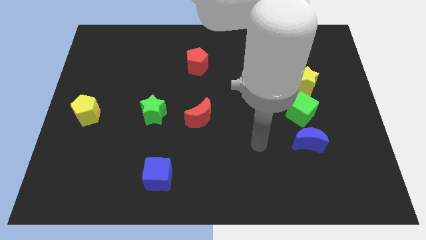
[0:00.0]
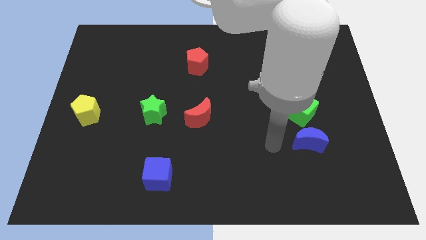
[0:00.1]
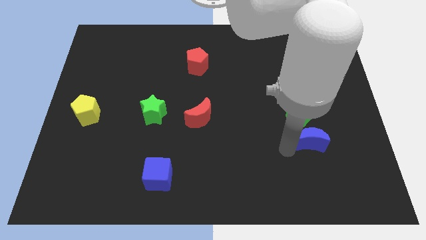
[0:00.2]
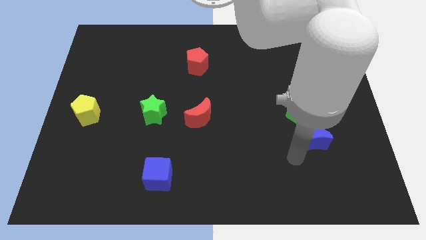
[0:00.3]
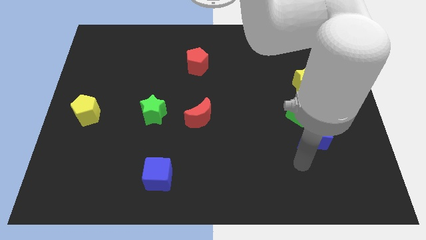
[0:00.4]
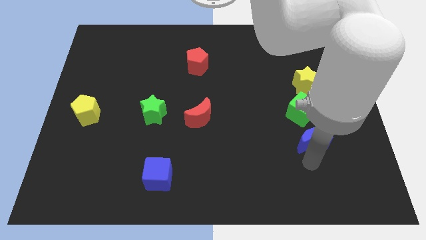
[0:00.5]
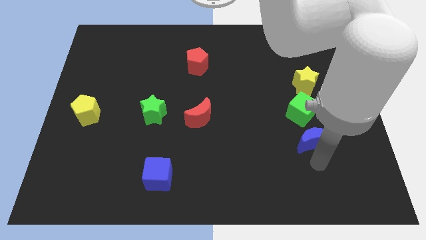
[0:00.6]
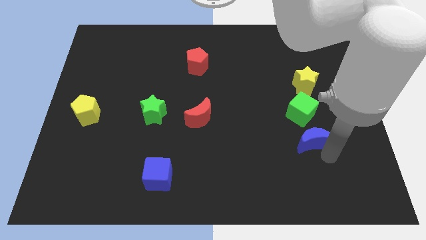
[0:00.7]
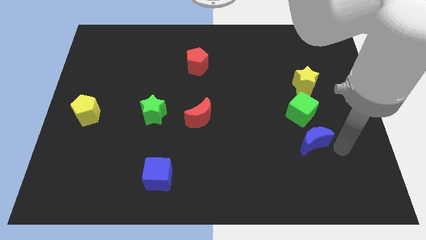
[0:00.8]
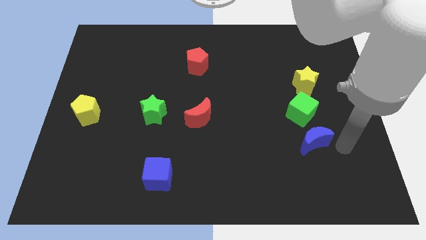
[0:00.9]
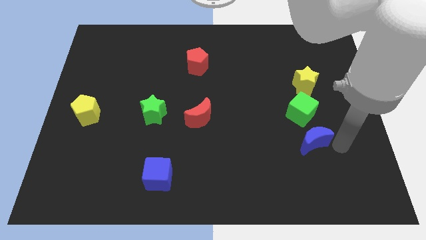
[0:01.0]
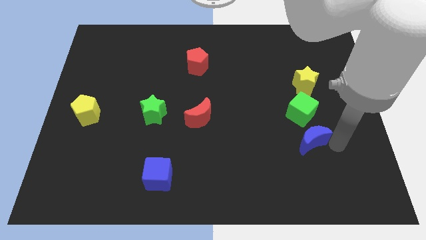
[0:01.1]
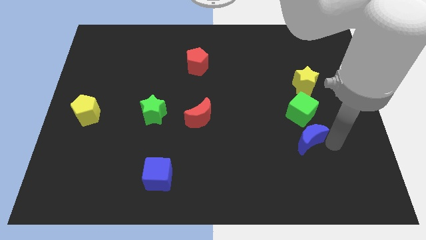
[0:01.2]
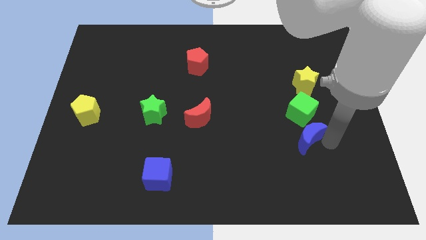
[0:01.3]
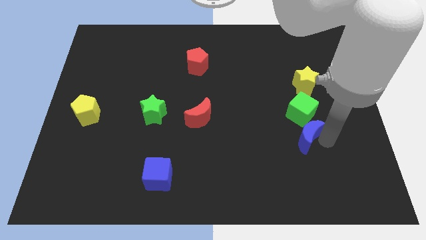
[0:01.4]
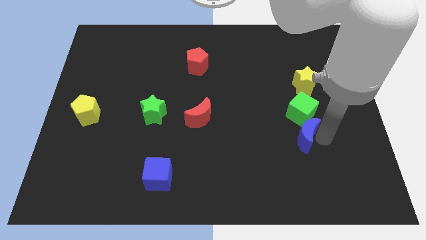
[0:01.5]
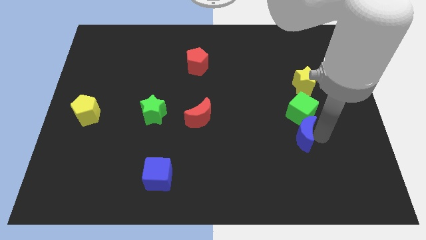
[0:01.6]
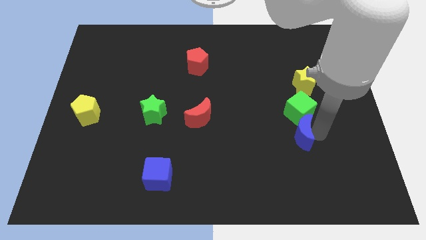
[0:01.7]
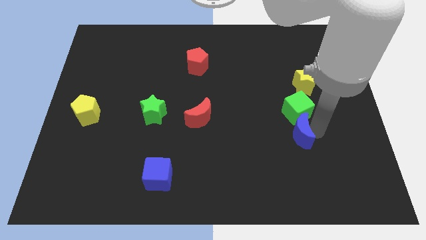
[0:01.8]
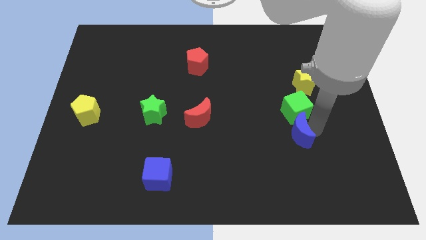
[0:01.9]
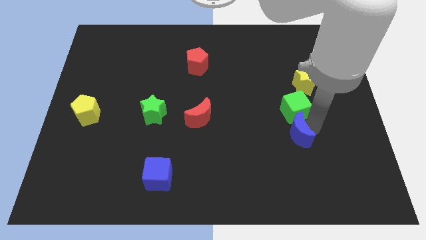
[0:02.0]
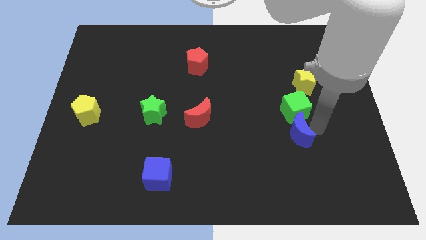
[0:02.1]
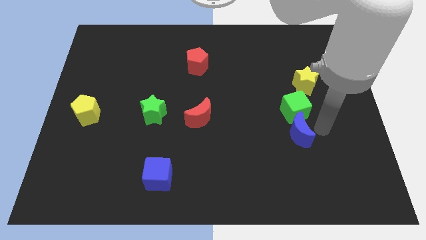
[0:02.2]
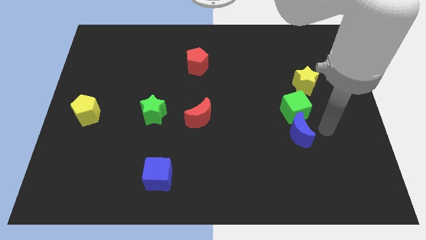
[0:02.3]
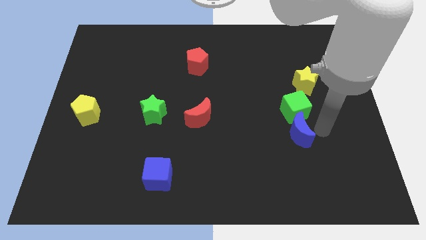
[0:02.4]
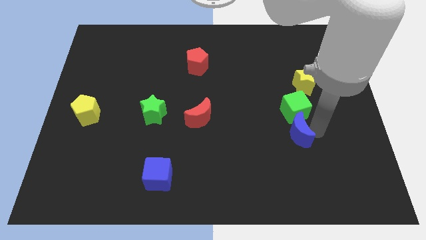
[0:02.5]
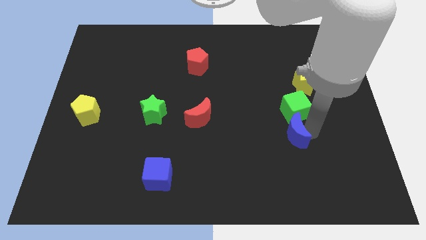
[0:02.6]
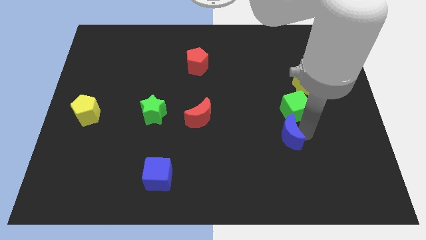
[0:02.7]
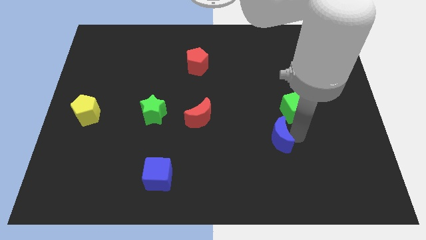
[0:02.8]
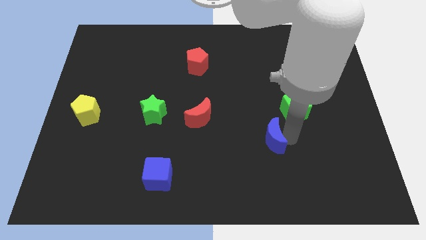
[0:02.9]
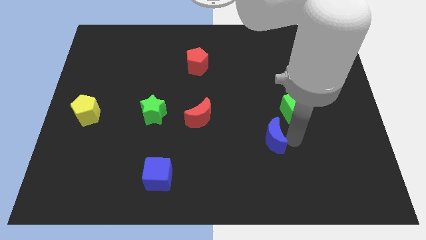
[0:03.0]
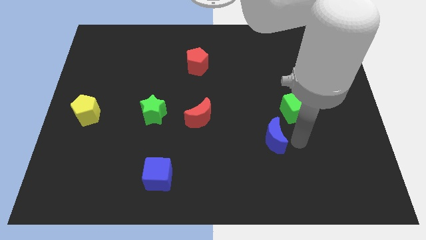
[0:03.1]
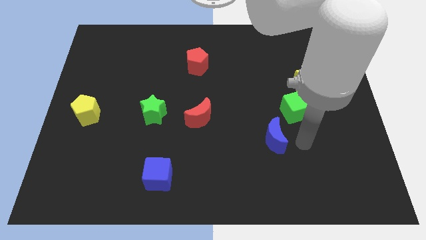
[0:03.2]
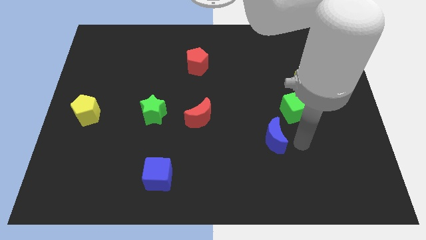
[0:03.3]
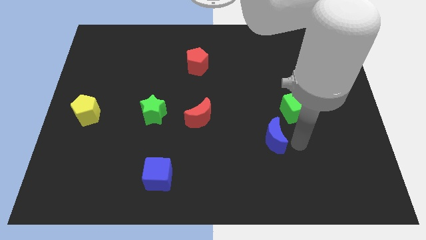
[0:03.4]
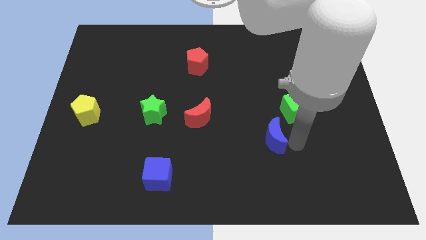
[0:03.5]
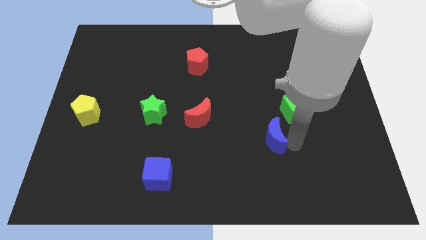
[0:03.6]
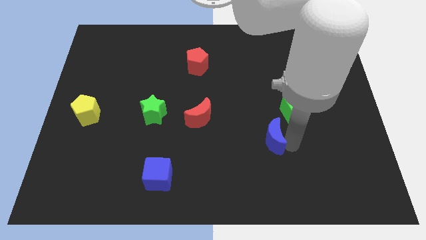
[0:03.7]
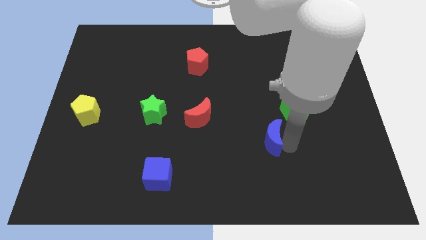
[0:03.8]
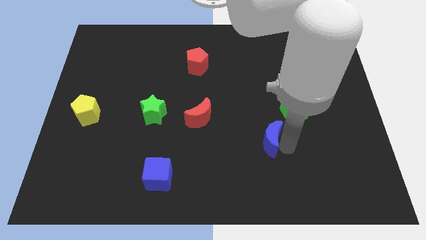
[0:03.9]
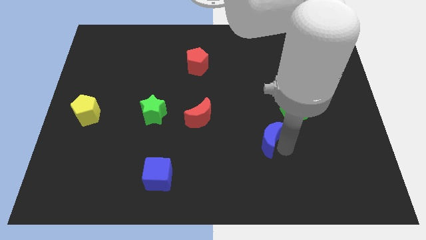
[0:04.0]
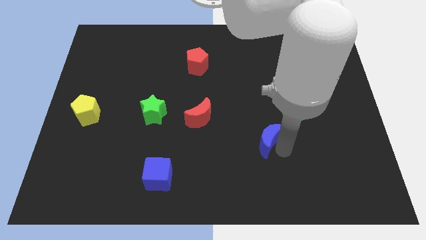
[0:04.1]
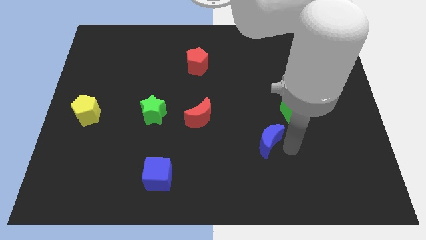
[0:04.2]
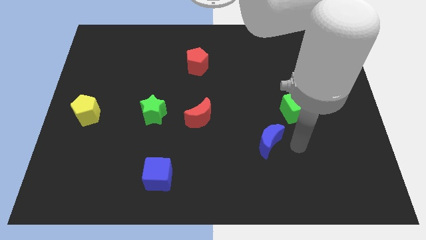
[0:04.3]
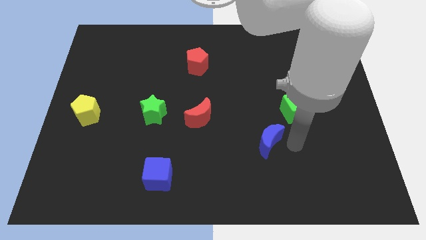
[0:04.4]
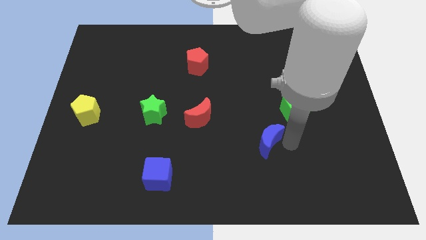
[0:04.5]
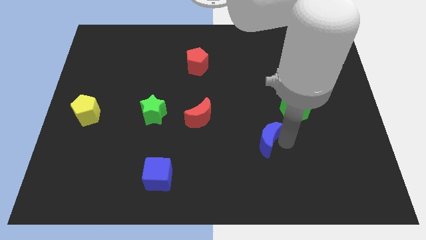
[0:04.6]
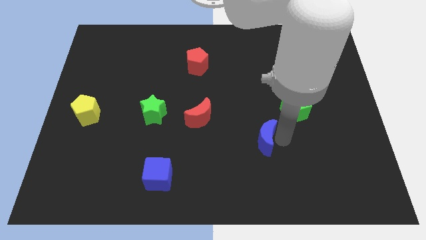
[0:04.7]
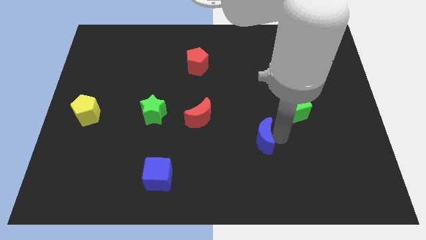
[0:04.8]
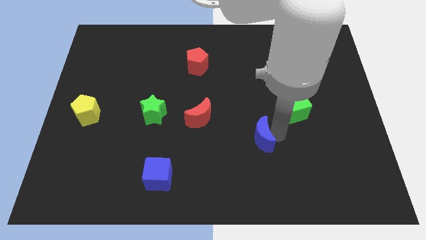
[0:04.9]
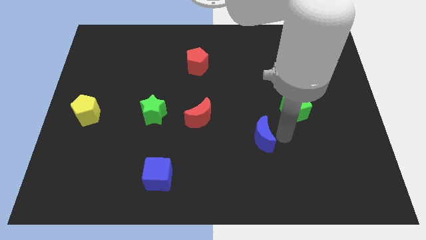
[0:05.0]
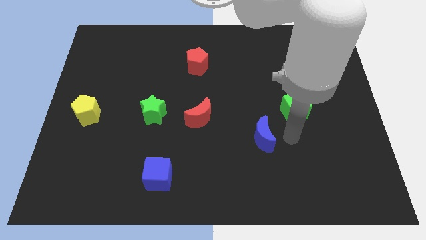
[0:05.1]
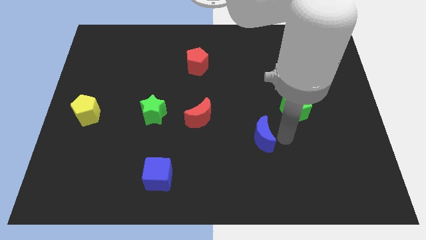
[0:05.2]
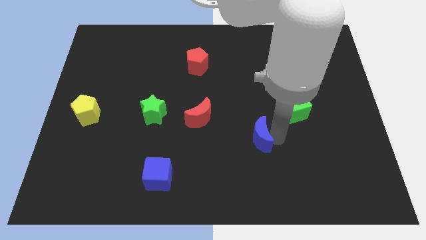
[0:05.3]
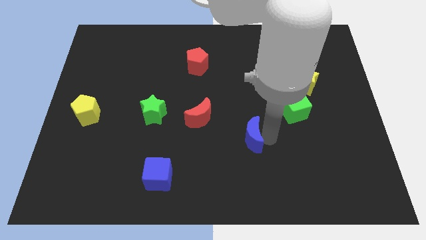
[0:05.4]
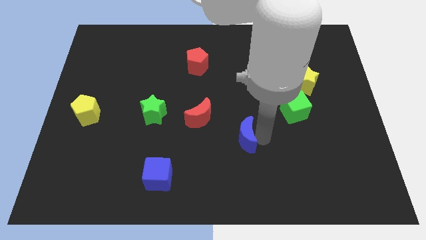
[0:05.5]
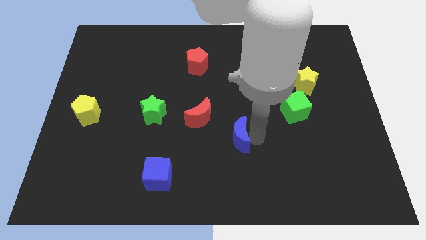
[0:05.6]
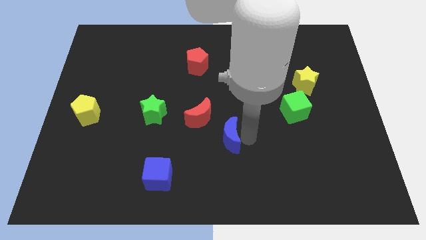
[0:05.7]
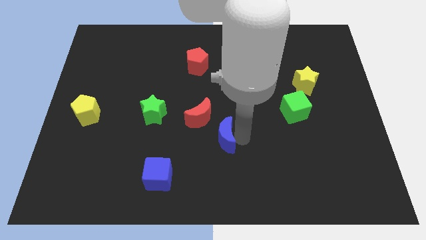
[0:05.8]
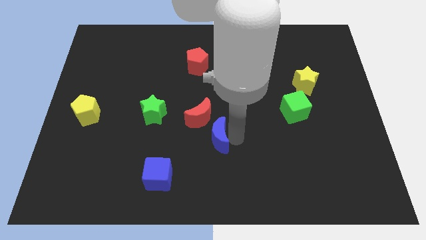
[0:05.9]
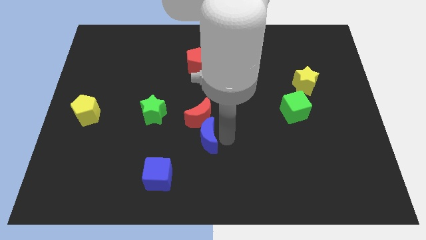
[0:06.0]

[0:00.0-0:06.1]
move the blue moon left

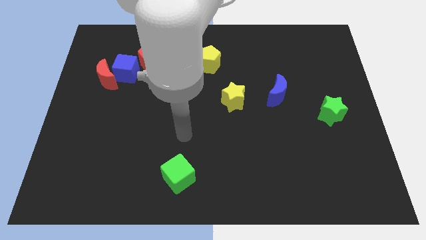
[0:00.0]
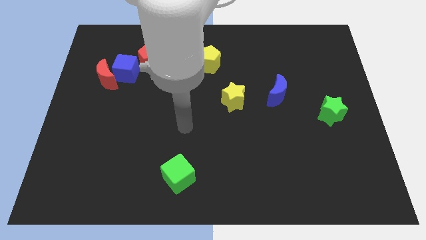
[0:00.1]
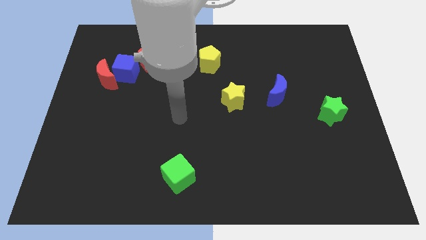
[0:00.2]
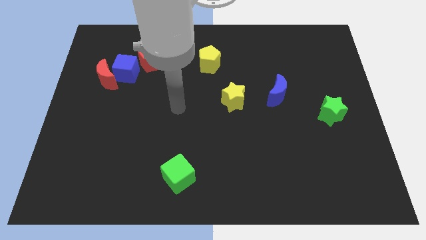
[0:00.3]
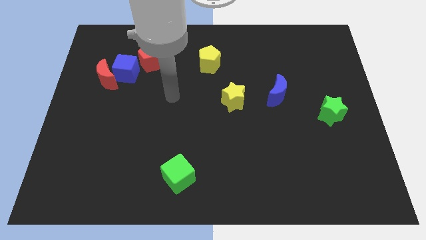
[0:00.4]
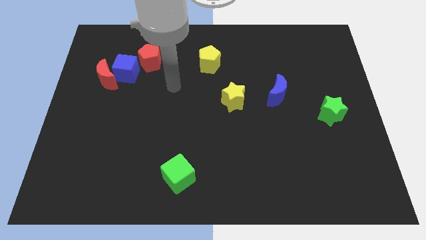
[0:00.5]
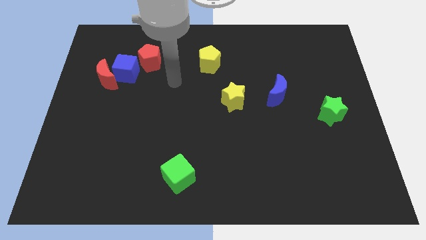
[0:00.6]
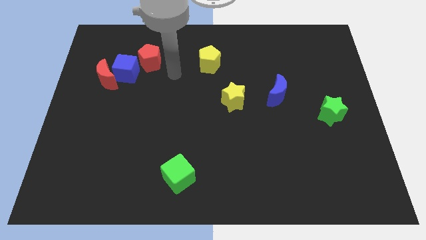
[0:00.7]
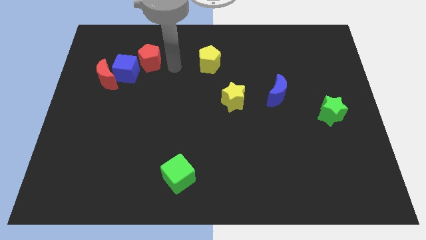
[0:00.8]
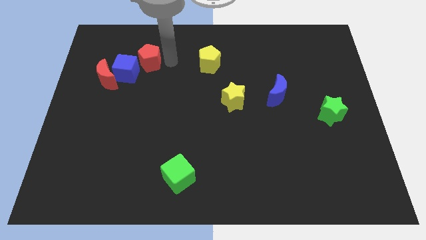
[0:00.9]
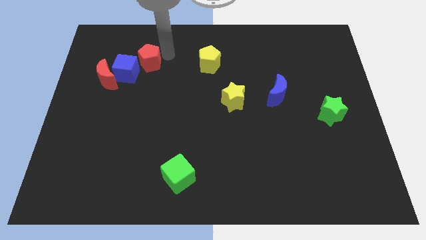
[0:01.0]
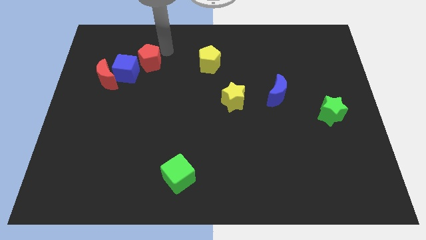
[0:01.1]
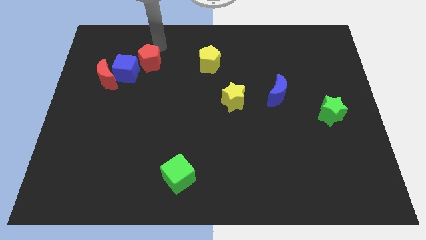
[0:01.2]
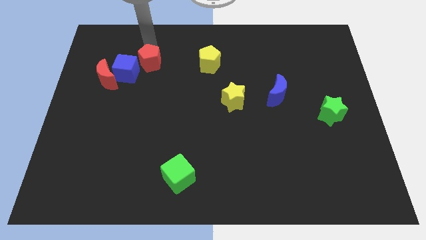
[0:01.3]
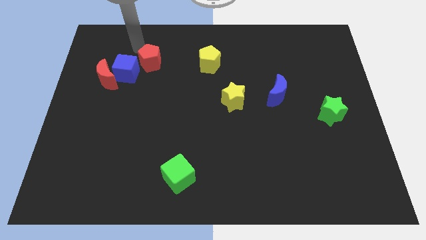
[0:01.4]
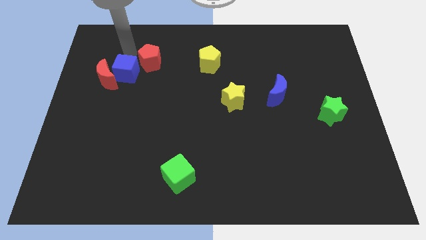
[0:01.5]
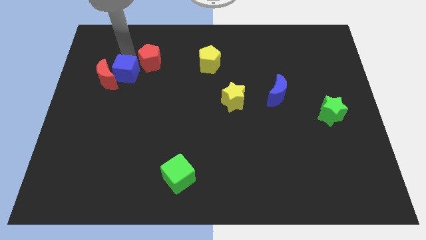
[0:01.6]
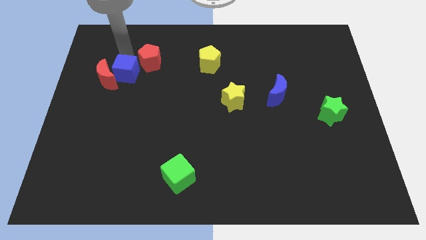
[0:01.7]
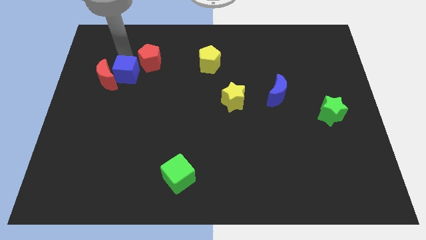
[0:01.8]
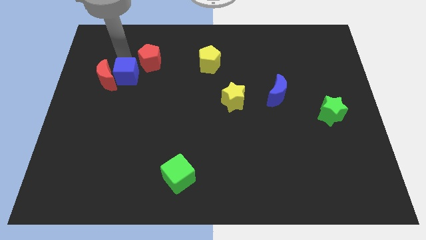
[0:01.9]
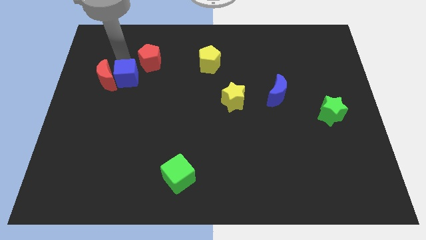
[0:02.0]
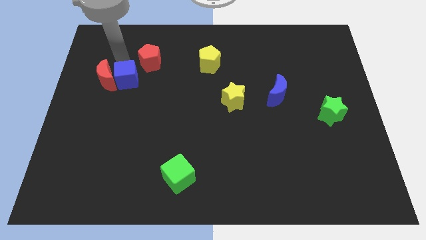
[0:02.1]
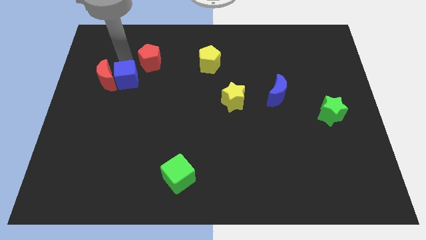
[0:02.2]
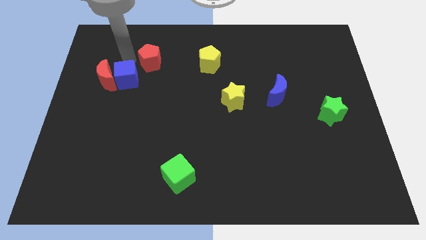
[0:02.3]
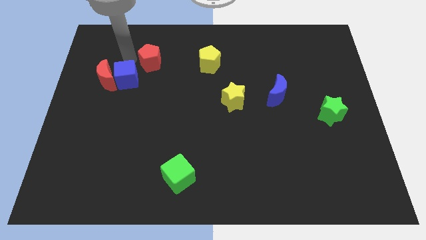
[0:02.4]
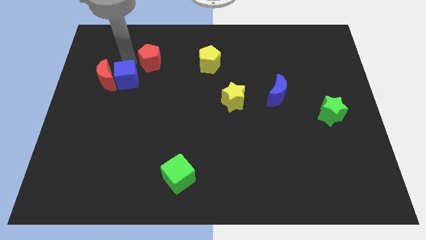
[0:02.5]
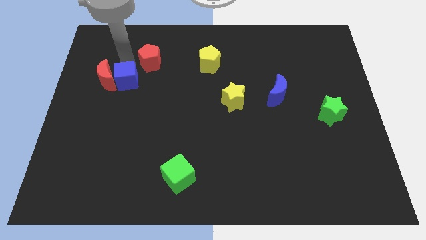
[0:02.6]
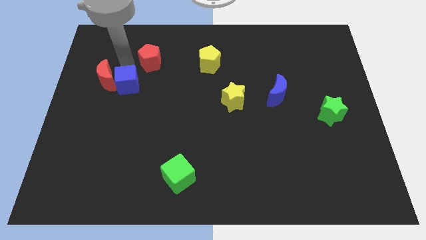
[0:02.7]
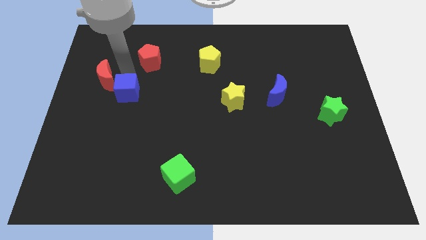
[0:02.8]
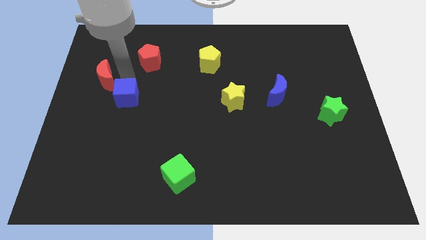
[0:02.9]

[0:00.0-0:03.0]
move the blue cube down a little bit
